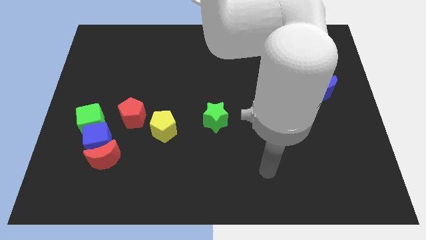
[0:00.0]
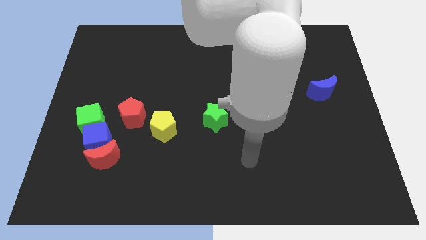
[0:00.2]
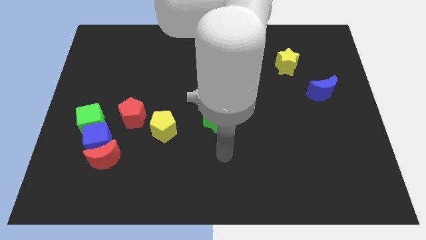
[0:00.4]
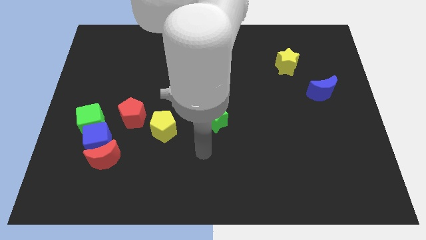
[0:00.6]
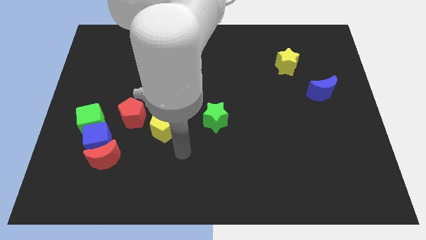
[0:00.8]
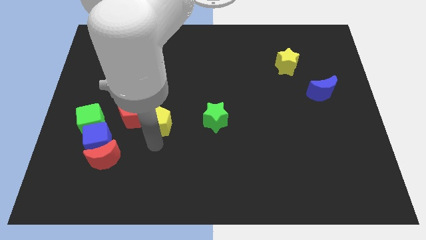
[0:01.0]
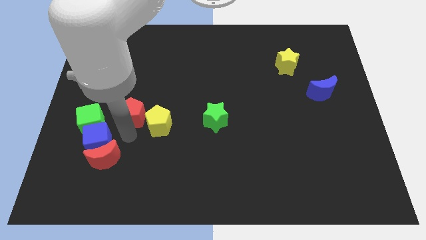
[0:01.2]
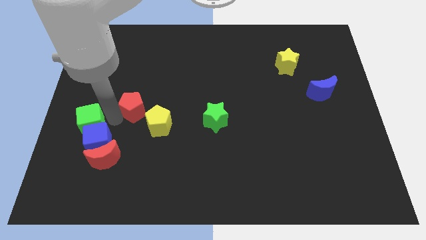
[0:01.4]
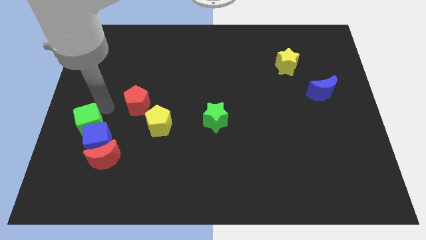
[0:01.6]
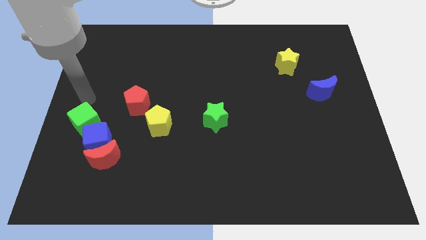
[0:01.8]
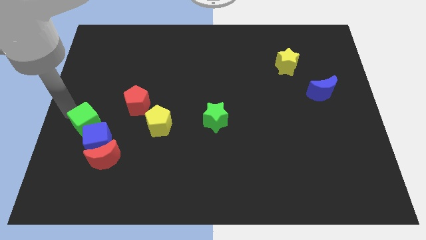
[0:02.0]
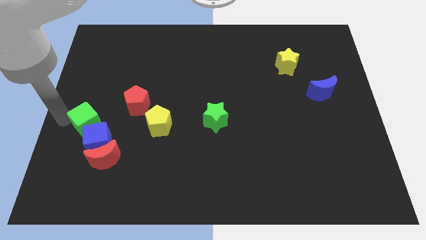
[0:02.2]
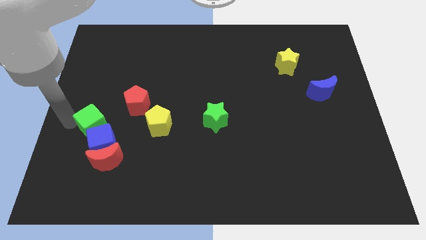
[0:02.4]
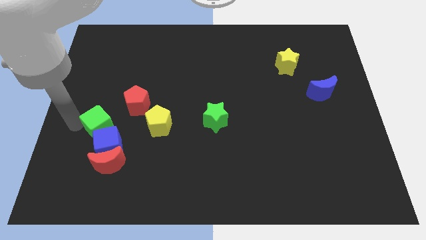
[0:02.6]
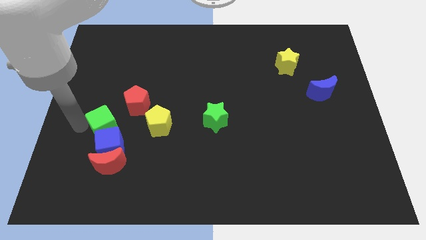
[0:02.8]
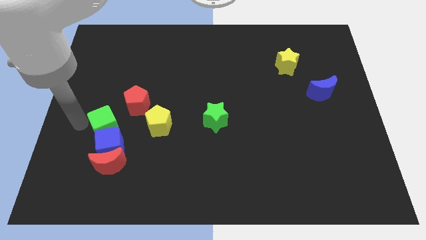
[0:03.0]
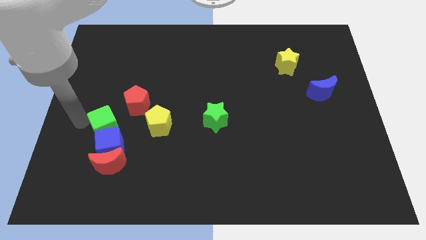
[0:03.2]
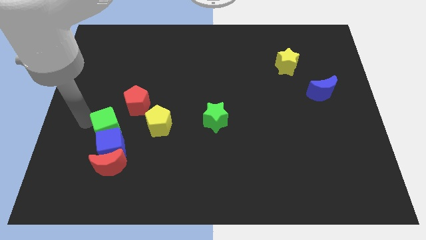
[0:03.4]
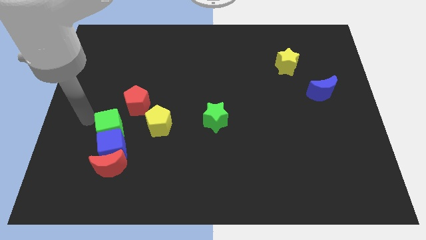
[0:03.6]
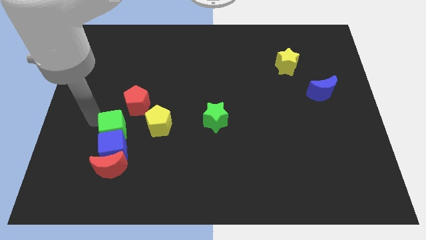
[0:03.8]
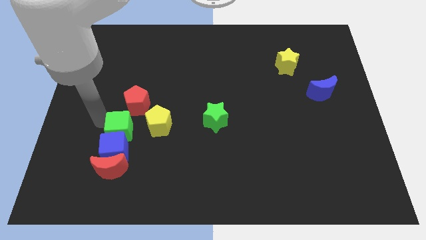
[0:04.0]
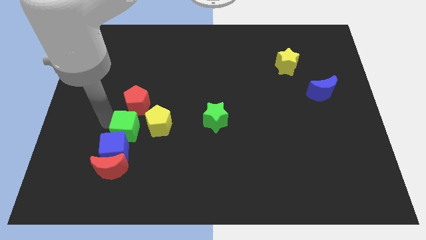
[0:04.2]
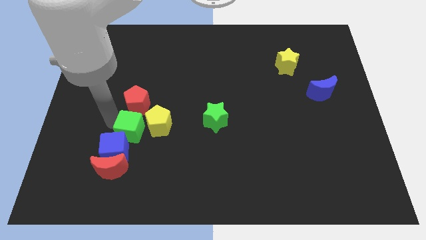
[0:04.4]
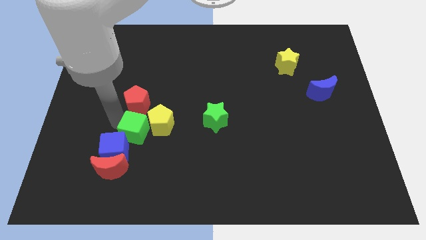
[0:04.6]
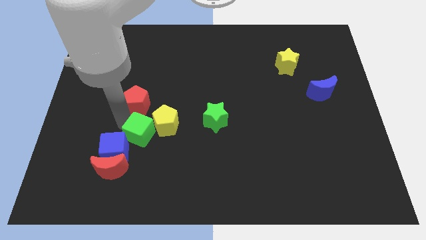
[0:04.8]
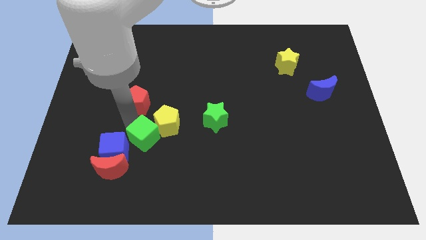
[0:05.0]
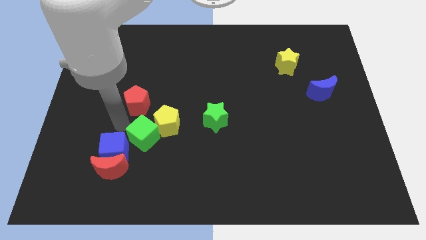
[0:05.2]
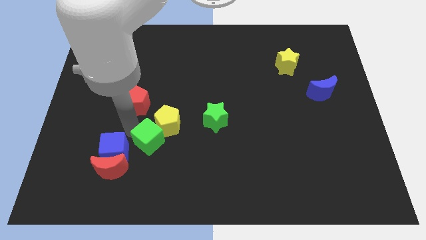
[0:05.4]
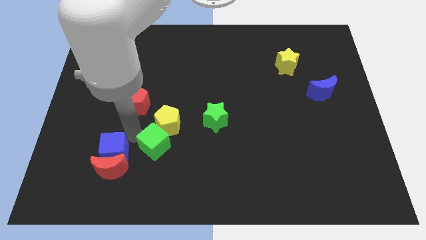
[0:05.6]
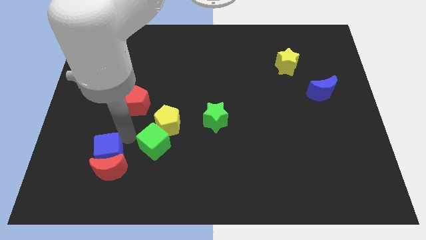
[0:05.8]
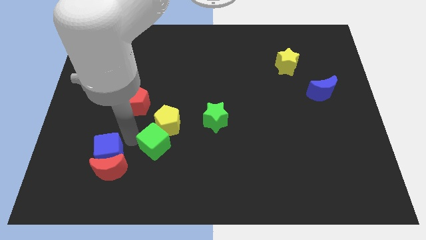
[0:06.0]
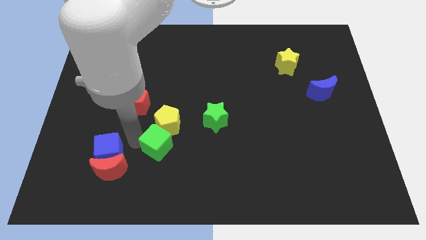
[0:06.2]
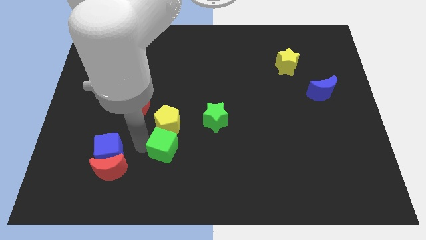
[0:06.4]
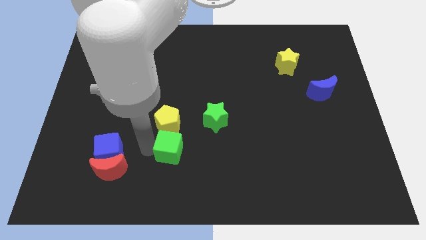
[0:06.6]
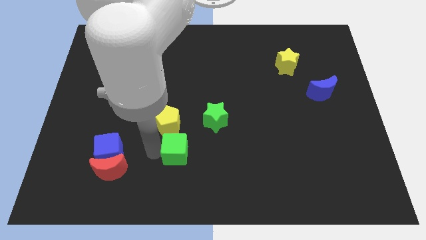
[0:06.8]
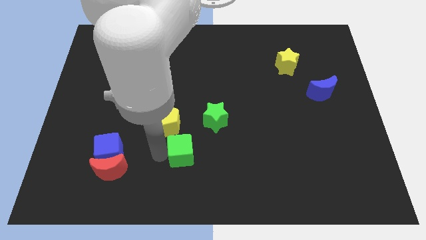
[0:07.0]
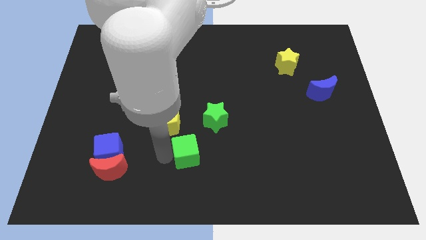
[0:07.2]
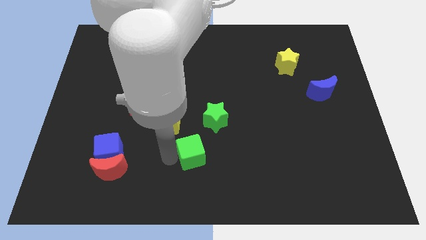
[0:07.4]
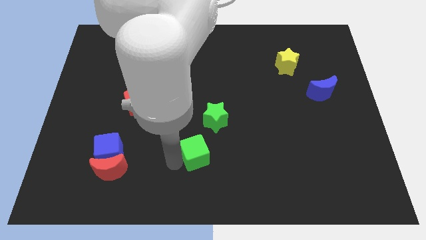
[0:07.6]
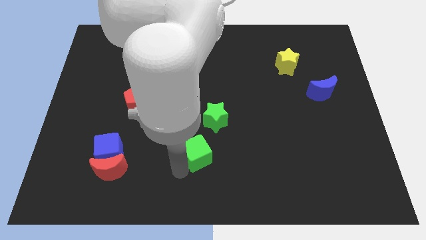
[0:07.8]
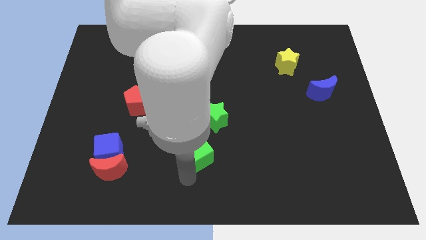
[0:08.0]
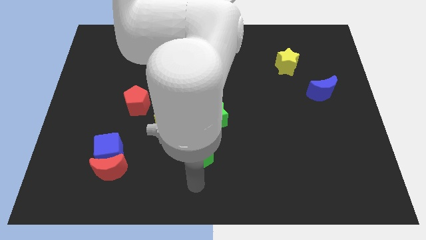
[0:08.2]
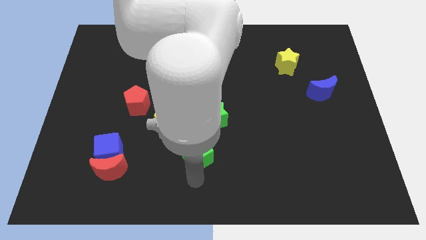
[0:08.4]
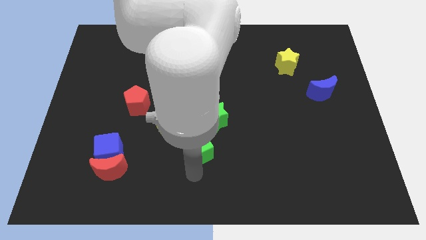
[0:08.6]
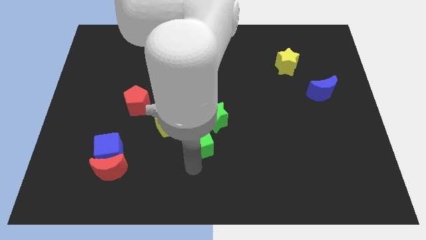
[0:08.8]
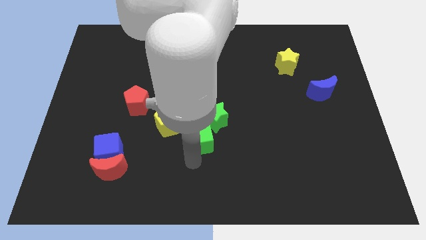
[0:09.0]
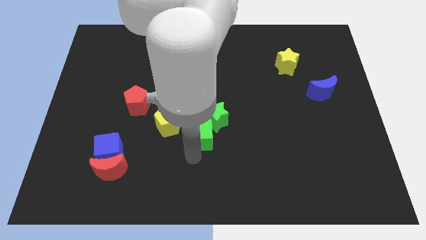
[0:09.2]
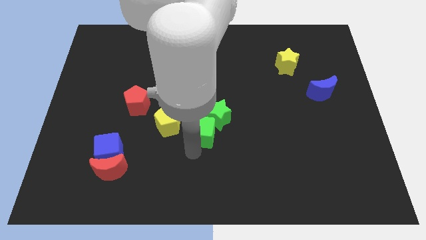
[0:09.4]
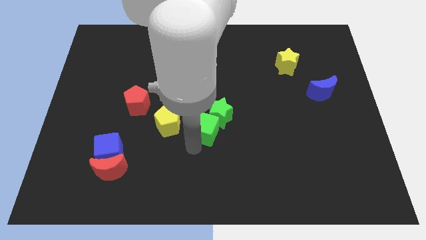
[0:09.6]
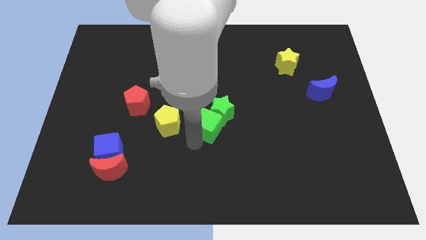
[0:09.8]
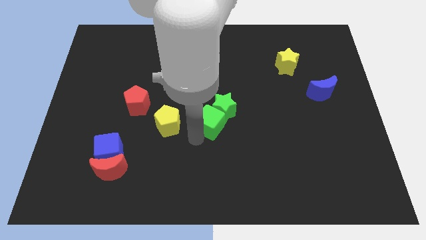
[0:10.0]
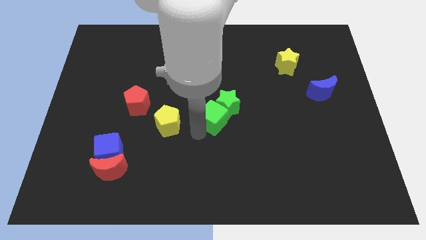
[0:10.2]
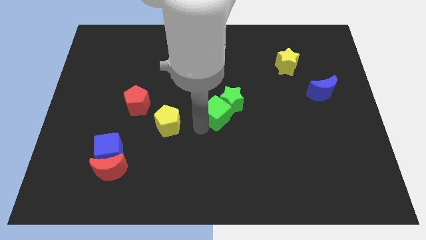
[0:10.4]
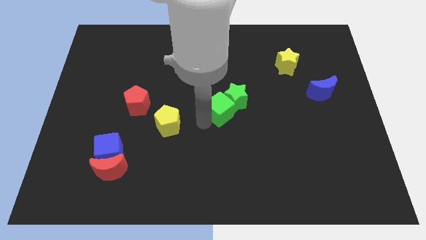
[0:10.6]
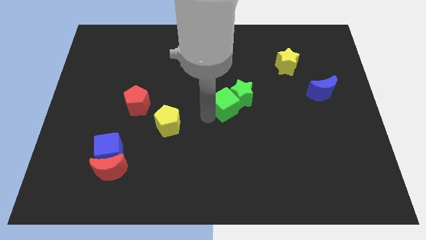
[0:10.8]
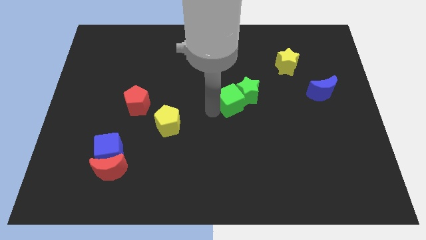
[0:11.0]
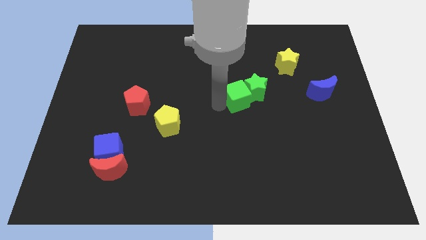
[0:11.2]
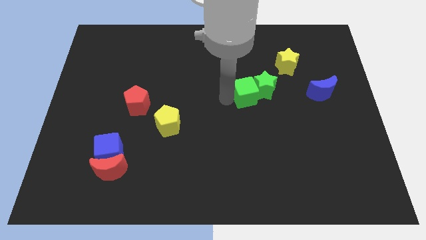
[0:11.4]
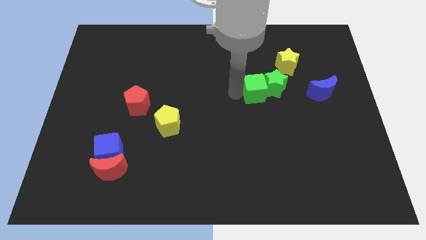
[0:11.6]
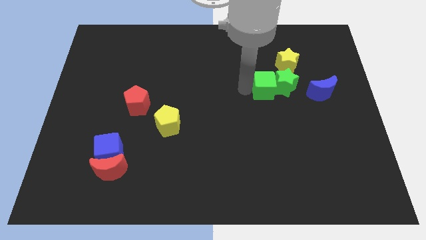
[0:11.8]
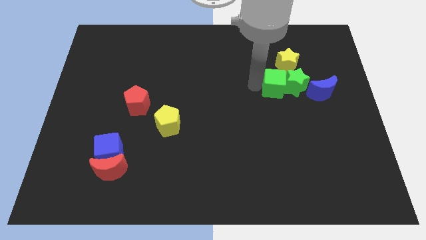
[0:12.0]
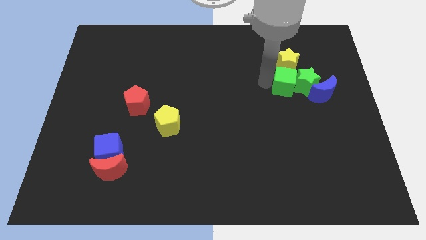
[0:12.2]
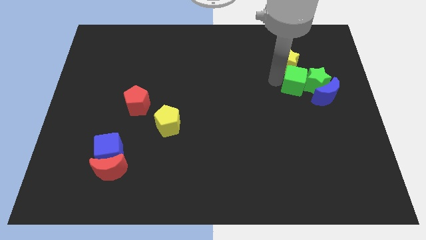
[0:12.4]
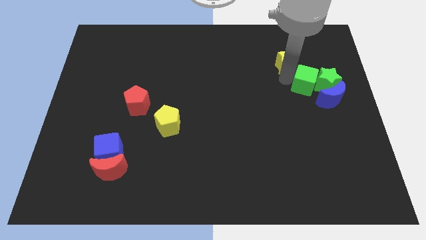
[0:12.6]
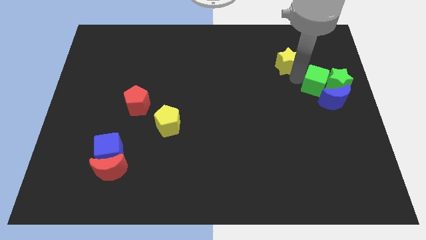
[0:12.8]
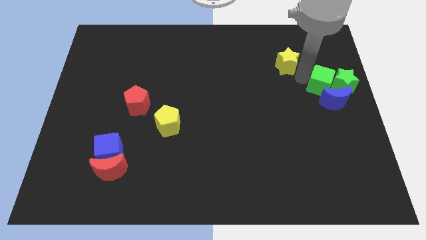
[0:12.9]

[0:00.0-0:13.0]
slide the green cube to the right side of the board
